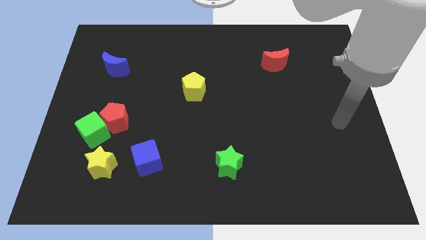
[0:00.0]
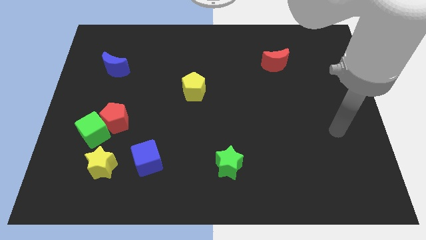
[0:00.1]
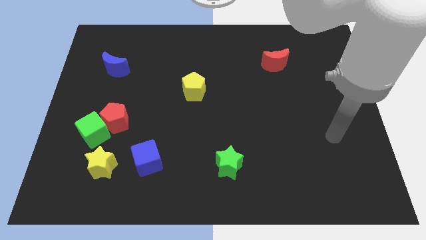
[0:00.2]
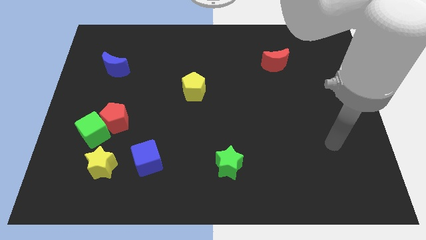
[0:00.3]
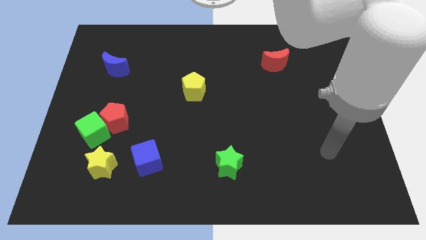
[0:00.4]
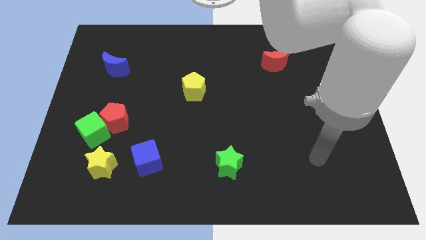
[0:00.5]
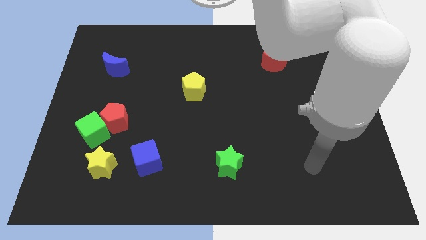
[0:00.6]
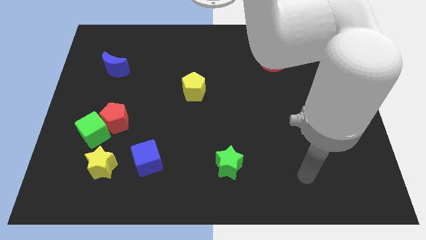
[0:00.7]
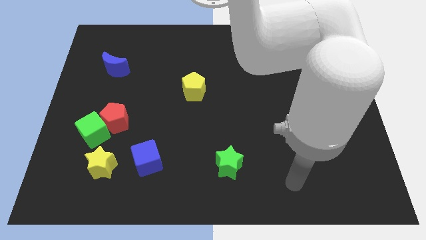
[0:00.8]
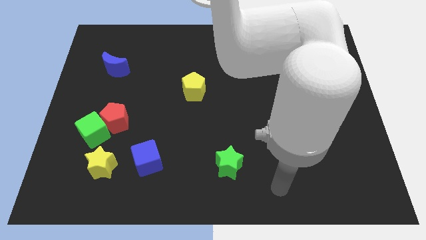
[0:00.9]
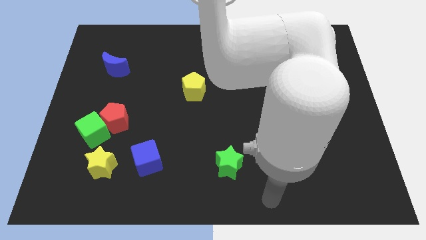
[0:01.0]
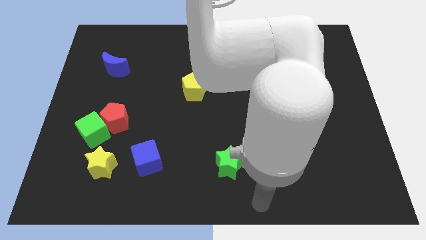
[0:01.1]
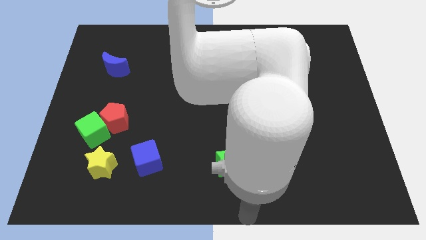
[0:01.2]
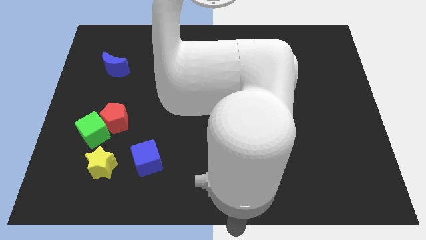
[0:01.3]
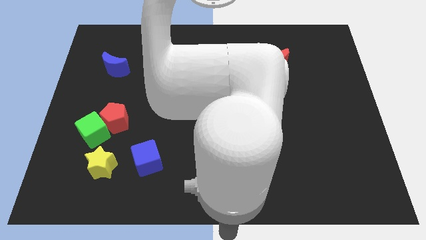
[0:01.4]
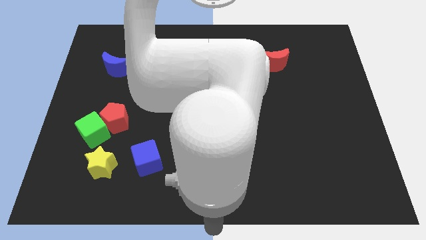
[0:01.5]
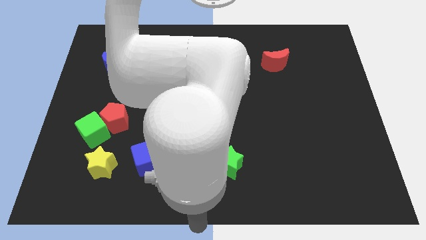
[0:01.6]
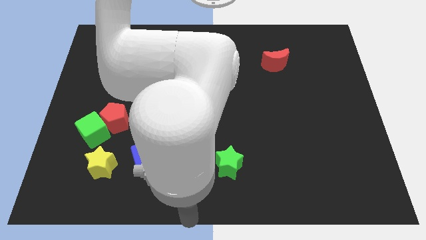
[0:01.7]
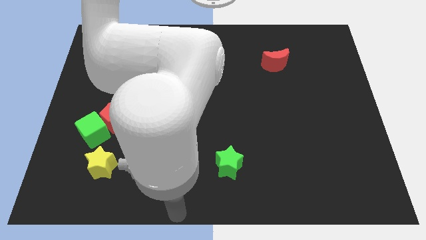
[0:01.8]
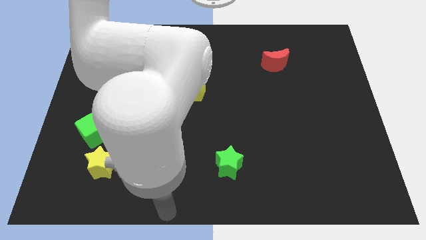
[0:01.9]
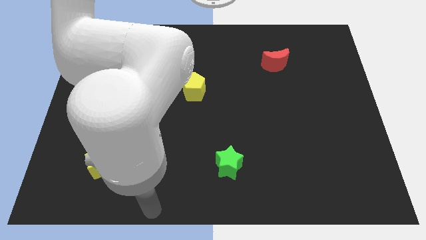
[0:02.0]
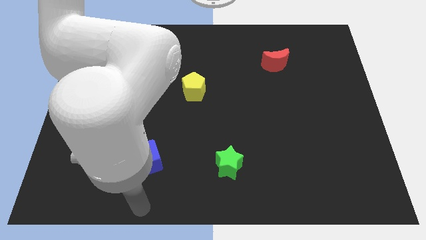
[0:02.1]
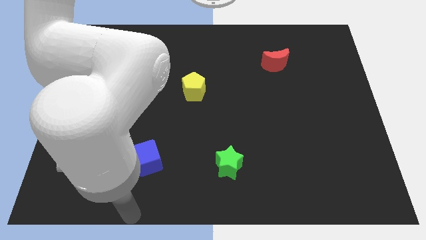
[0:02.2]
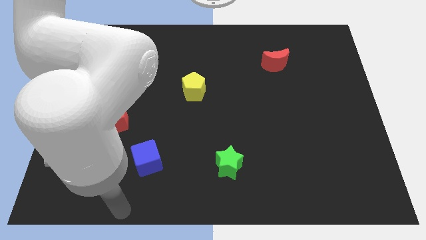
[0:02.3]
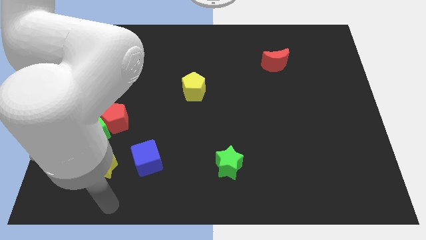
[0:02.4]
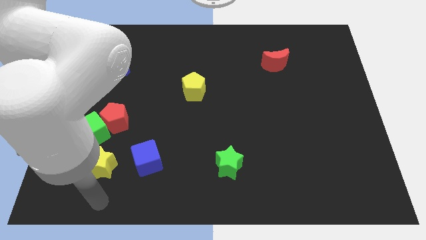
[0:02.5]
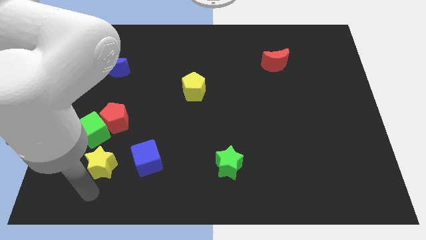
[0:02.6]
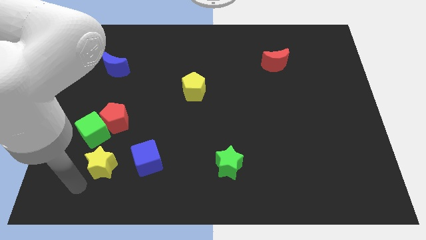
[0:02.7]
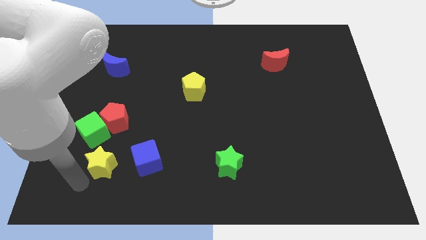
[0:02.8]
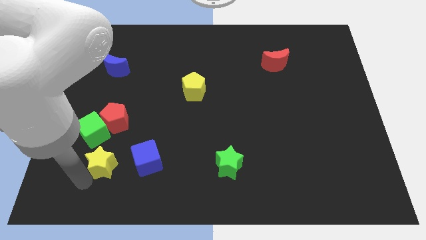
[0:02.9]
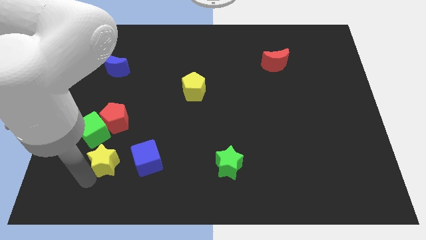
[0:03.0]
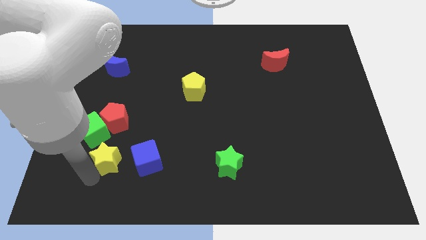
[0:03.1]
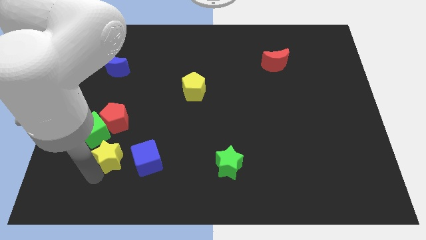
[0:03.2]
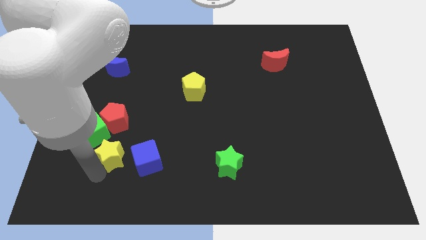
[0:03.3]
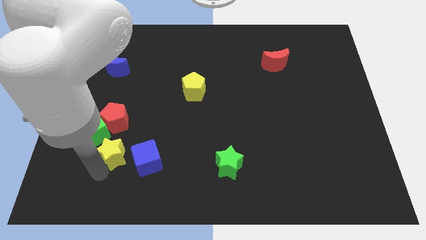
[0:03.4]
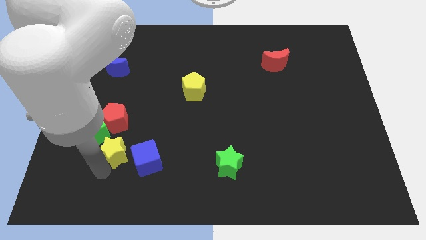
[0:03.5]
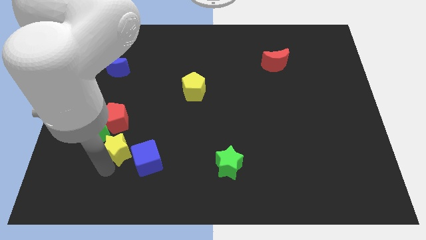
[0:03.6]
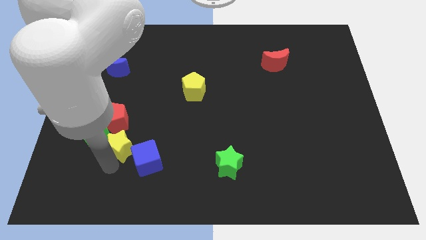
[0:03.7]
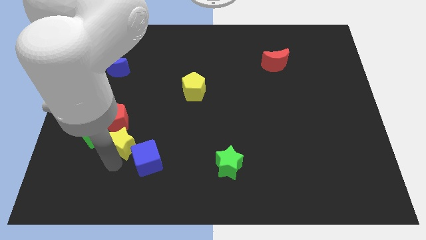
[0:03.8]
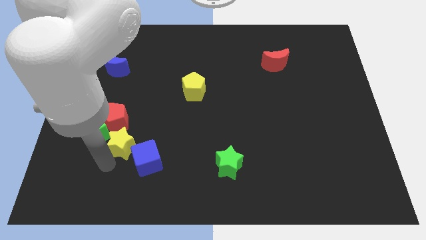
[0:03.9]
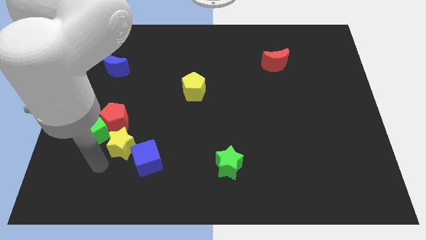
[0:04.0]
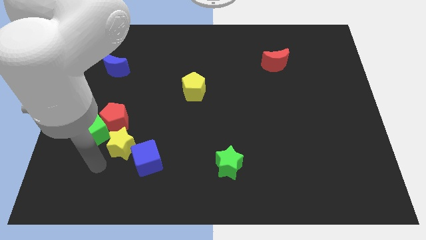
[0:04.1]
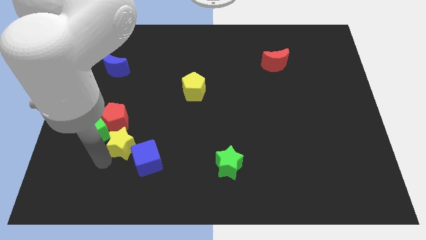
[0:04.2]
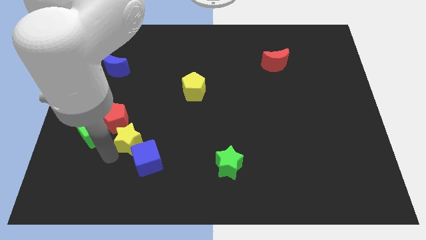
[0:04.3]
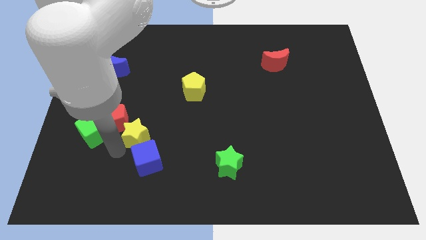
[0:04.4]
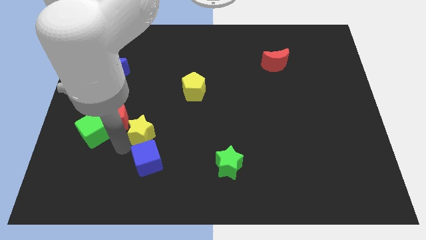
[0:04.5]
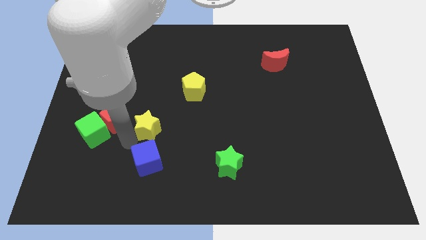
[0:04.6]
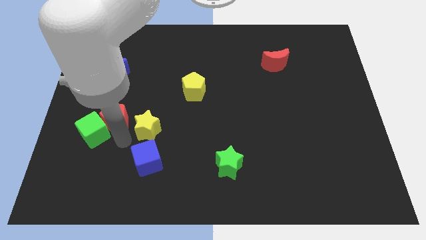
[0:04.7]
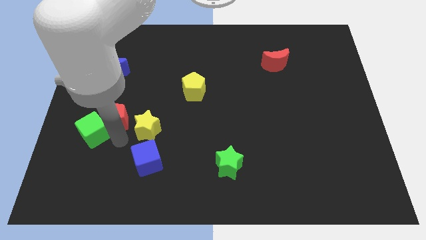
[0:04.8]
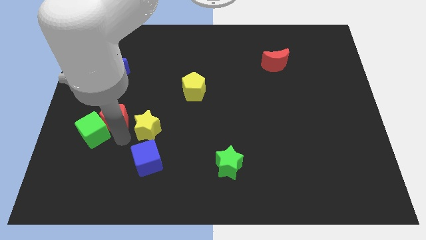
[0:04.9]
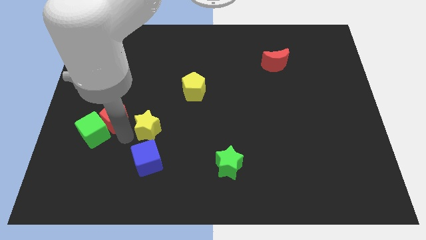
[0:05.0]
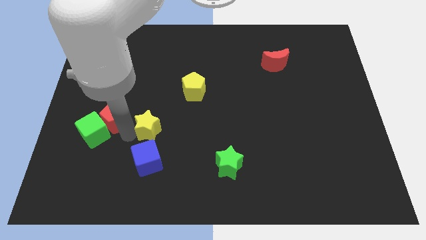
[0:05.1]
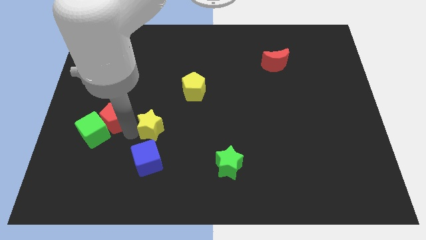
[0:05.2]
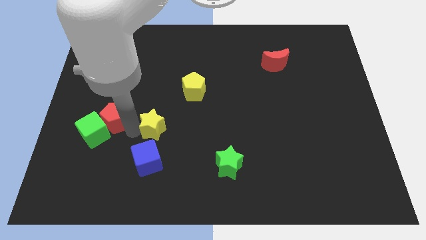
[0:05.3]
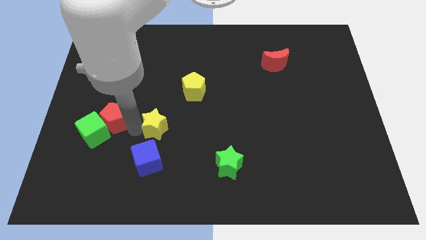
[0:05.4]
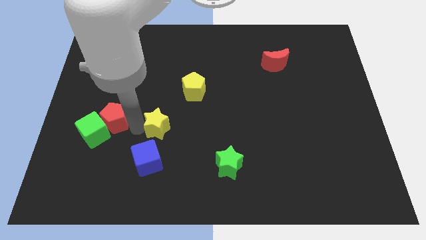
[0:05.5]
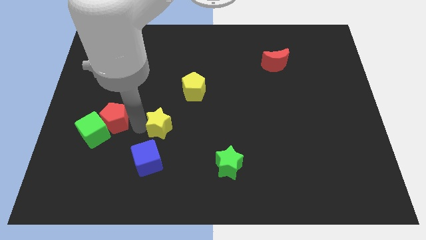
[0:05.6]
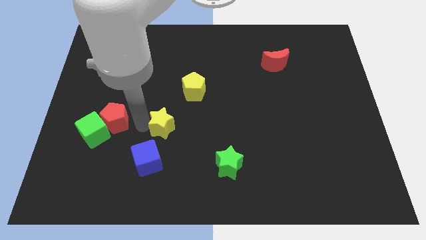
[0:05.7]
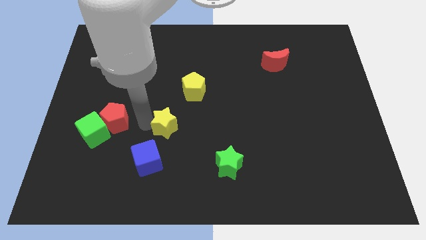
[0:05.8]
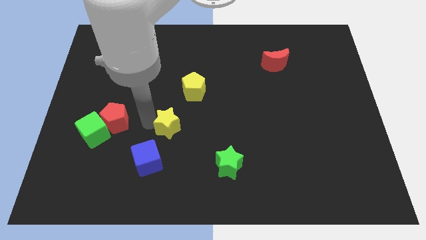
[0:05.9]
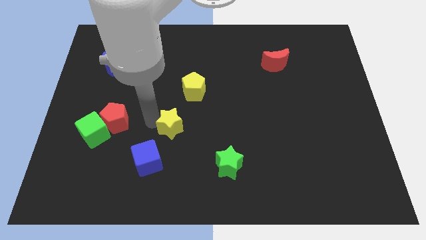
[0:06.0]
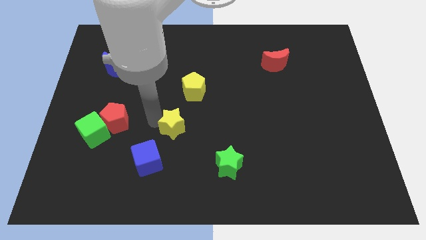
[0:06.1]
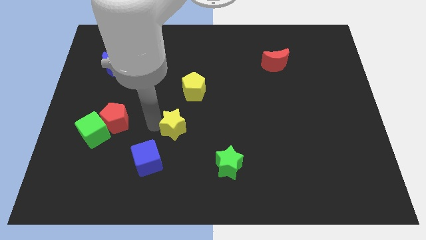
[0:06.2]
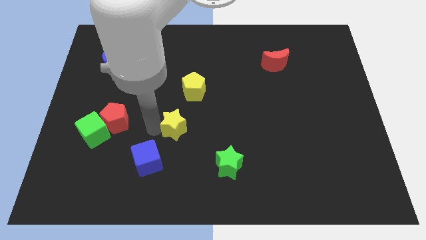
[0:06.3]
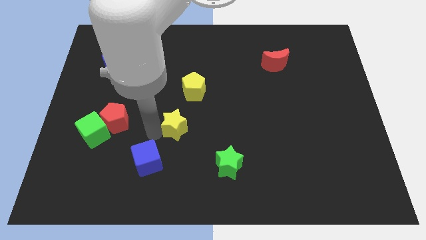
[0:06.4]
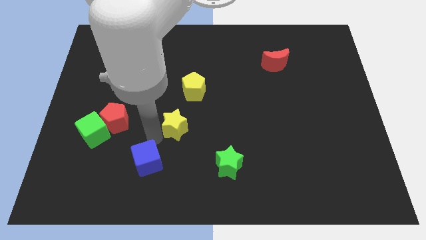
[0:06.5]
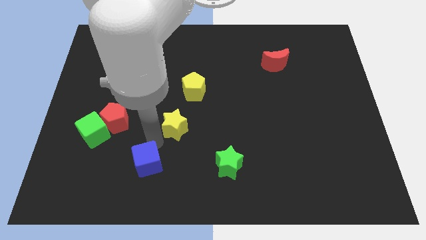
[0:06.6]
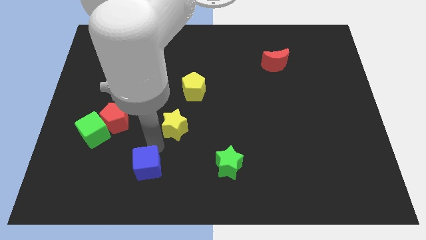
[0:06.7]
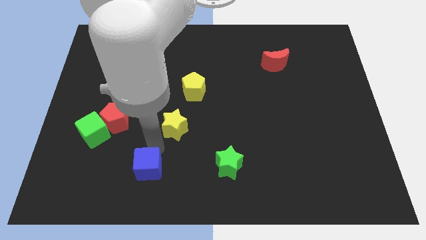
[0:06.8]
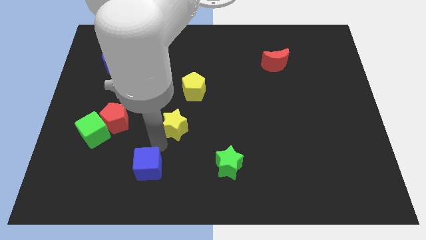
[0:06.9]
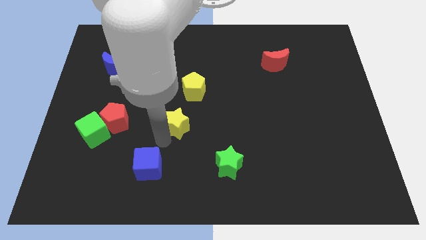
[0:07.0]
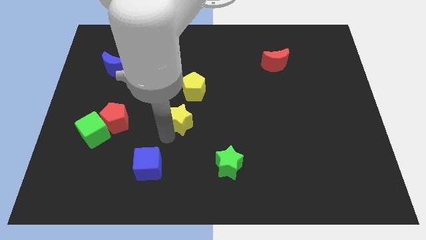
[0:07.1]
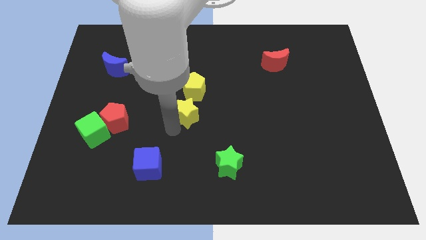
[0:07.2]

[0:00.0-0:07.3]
slide the yellow star up and to the right

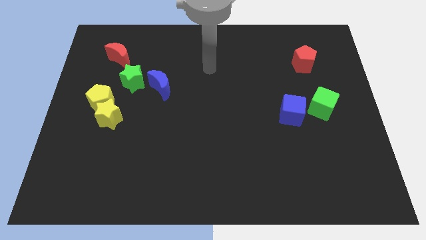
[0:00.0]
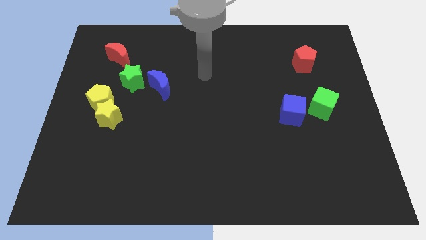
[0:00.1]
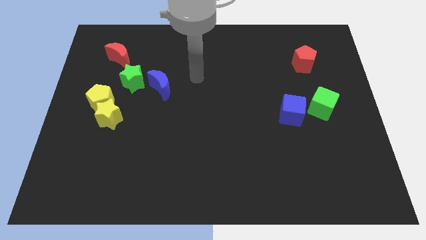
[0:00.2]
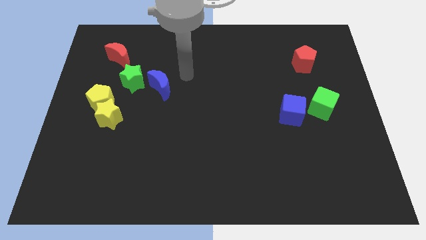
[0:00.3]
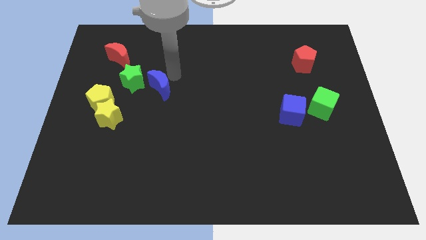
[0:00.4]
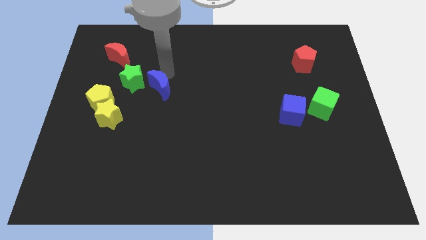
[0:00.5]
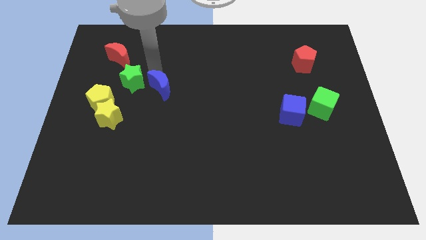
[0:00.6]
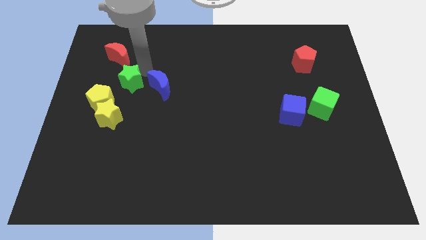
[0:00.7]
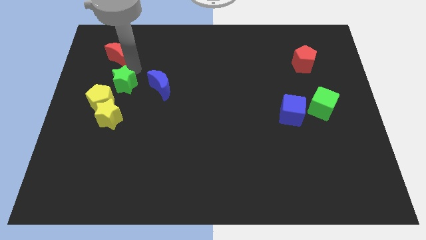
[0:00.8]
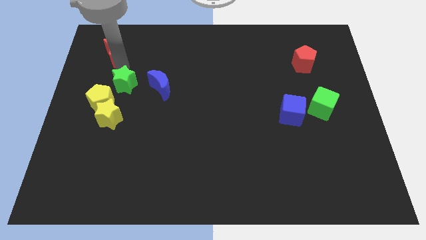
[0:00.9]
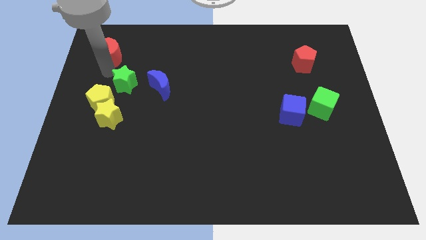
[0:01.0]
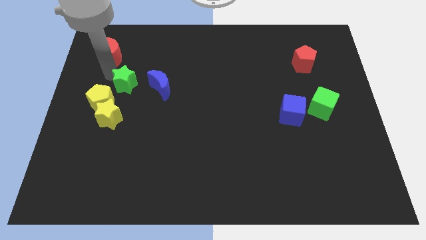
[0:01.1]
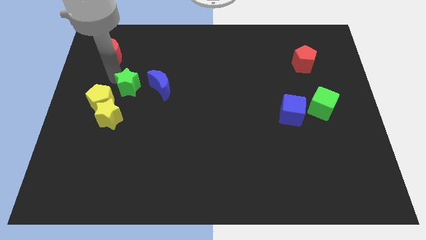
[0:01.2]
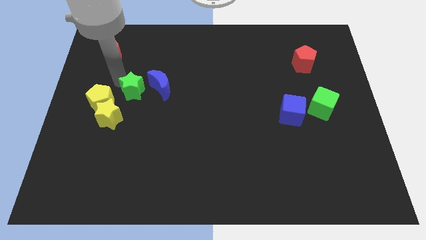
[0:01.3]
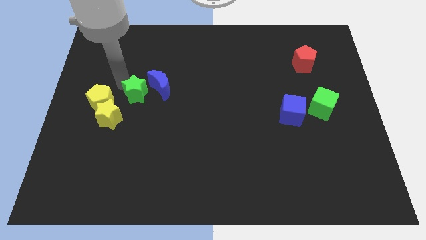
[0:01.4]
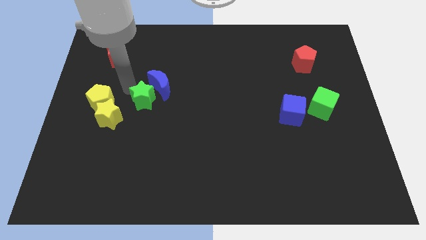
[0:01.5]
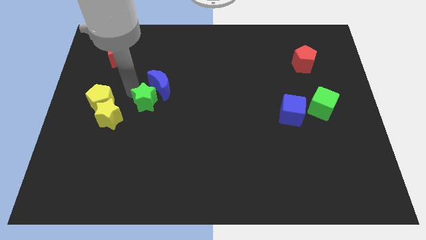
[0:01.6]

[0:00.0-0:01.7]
push the green star downwards and then to the right somewhat
